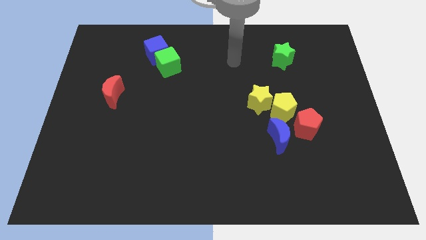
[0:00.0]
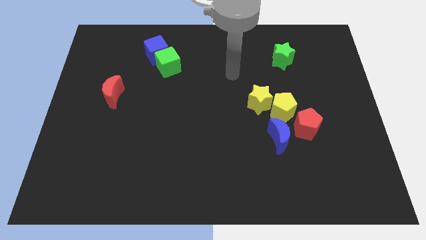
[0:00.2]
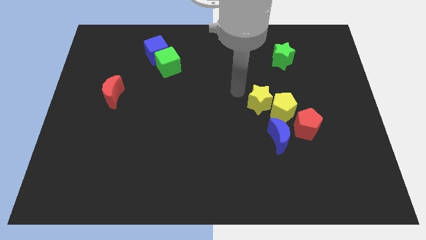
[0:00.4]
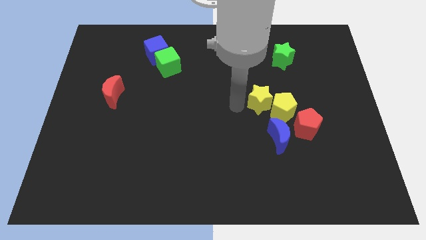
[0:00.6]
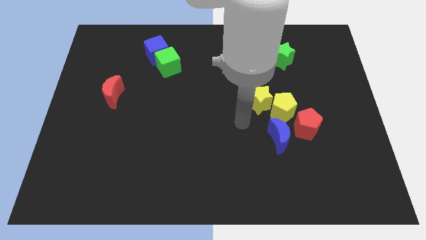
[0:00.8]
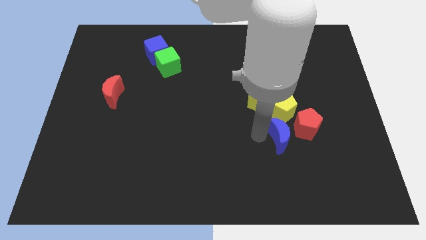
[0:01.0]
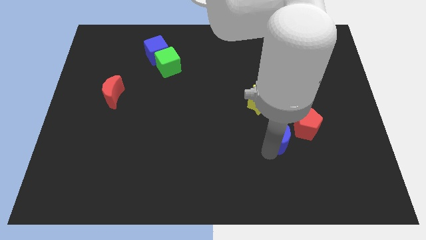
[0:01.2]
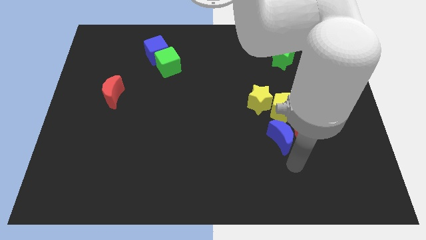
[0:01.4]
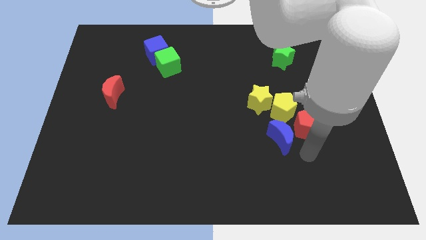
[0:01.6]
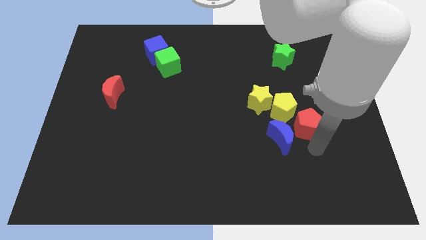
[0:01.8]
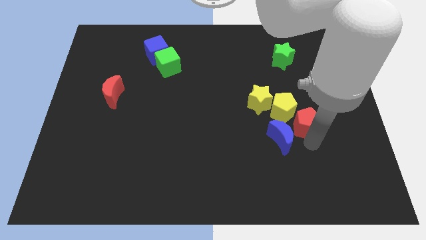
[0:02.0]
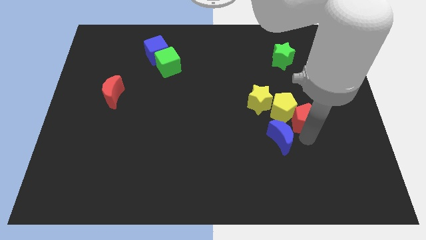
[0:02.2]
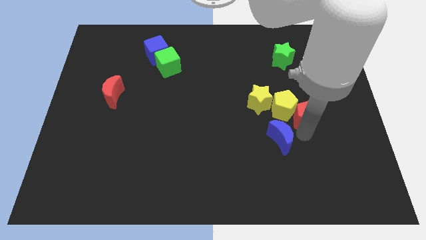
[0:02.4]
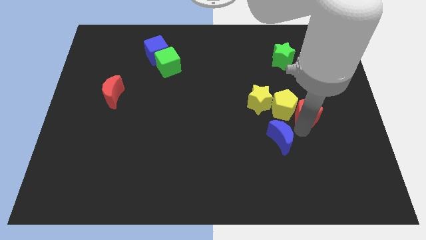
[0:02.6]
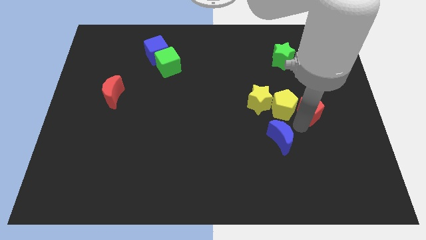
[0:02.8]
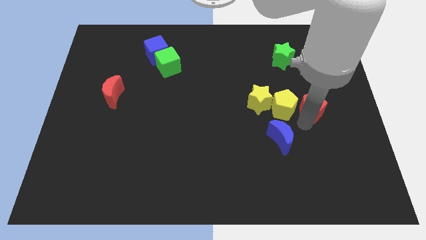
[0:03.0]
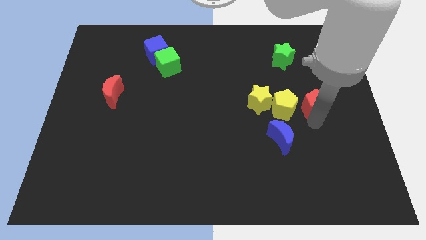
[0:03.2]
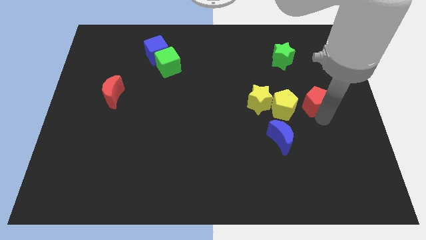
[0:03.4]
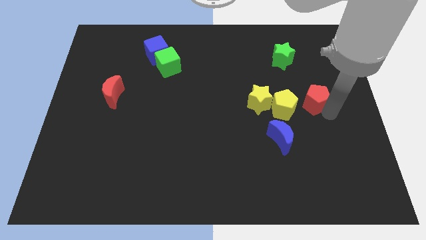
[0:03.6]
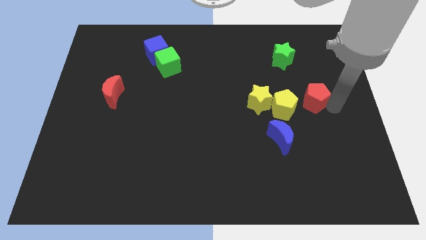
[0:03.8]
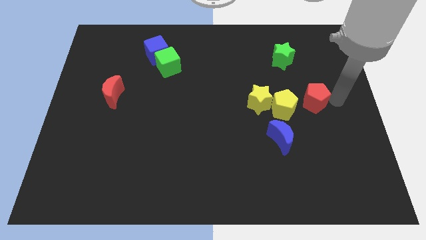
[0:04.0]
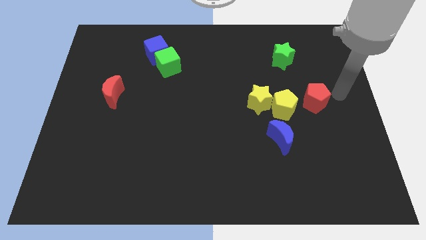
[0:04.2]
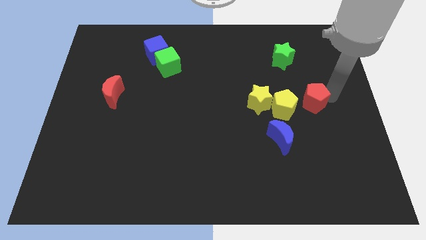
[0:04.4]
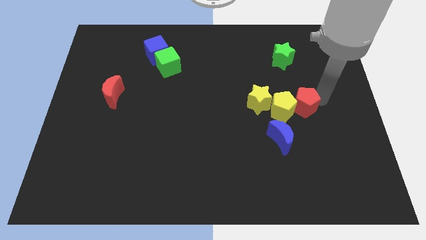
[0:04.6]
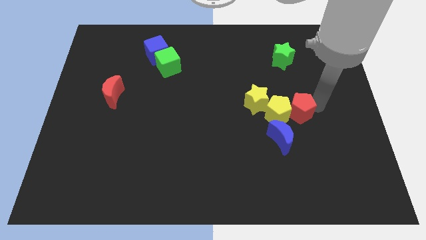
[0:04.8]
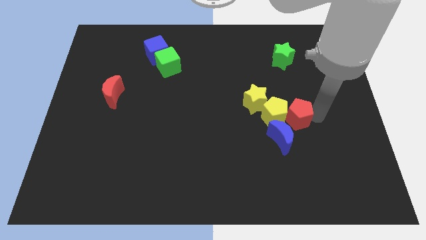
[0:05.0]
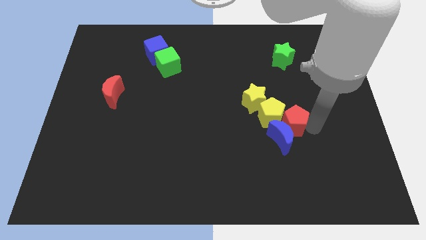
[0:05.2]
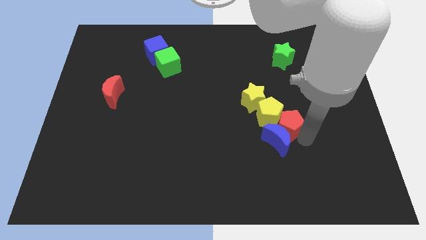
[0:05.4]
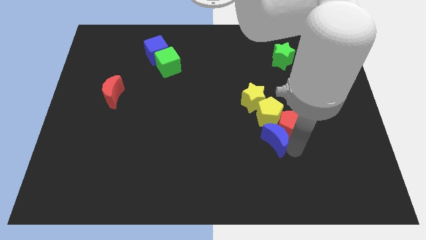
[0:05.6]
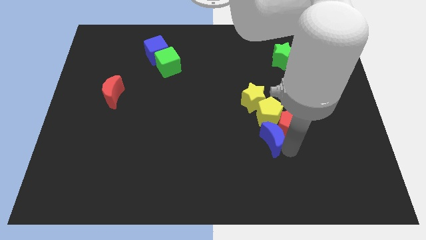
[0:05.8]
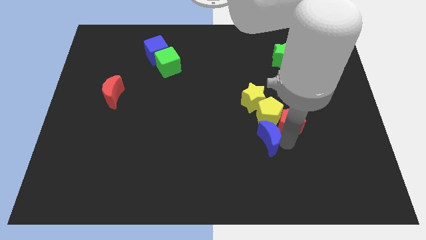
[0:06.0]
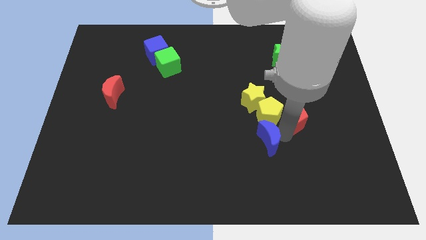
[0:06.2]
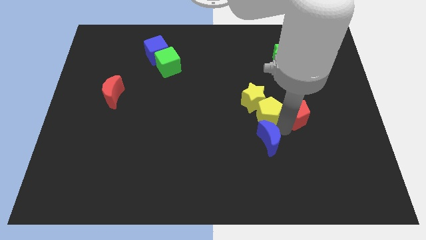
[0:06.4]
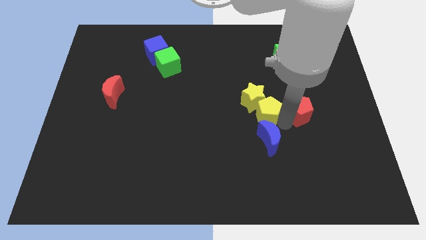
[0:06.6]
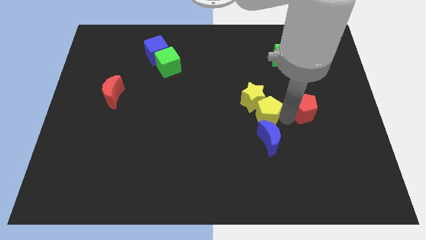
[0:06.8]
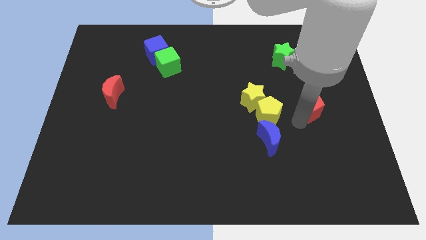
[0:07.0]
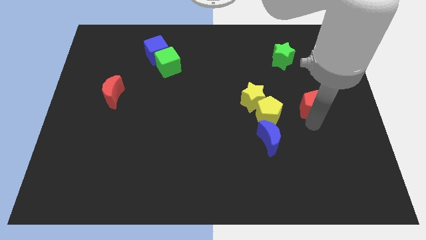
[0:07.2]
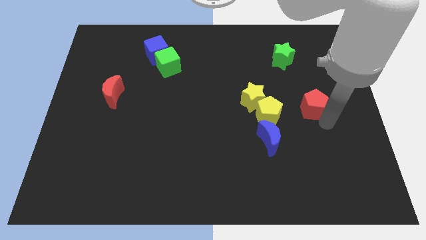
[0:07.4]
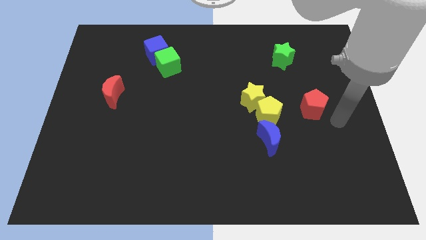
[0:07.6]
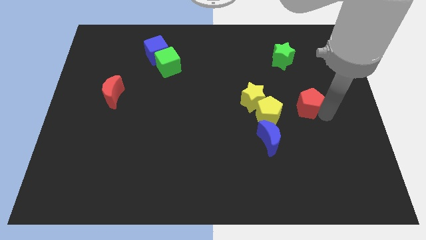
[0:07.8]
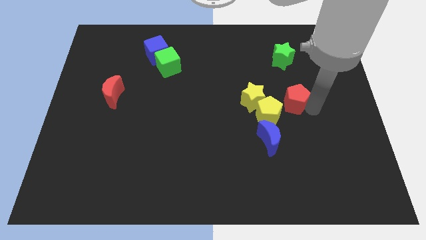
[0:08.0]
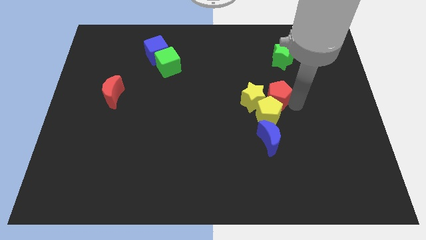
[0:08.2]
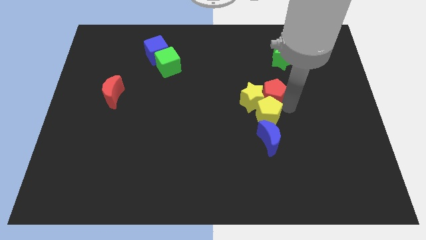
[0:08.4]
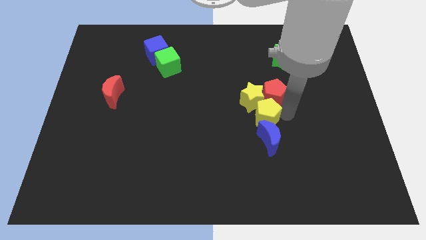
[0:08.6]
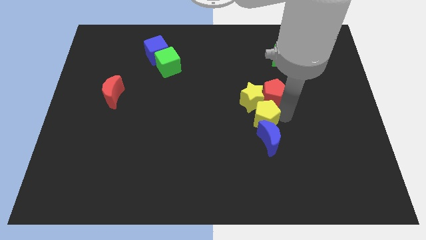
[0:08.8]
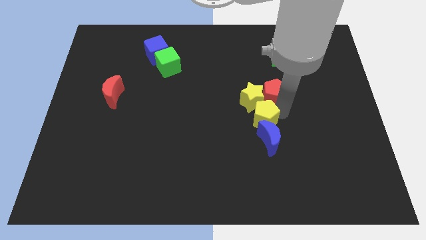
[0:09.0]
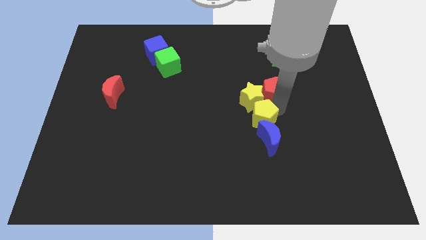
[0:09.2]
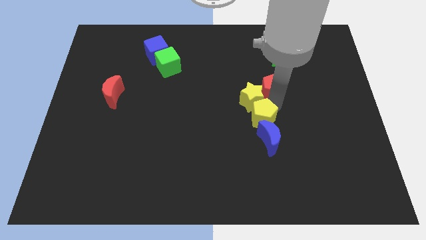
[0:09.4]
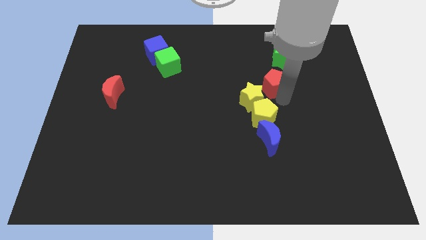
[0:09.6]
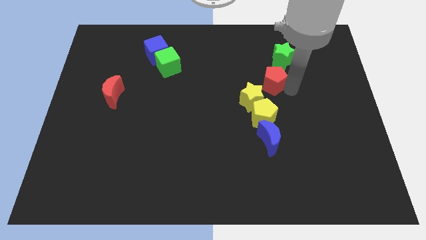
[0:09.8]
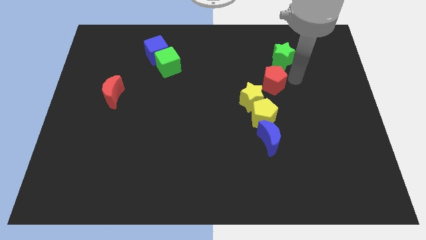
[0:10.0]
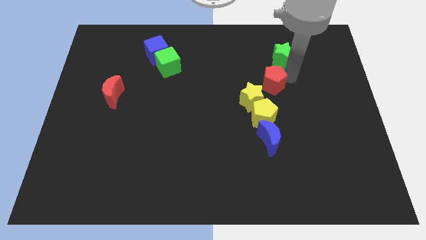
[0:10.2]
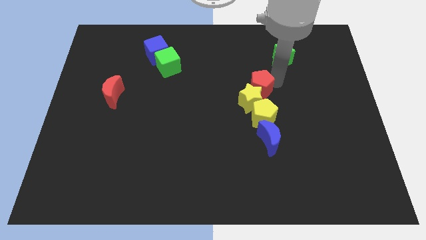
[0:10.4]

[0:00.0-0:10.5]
slide the red pentagon to the center of the board

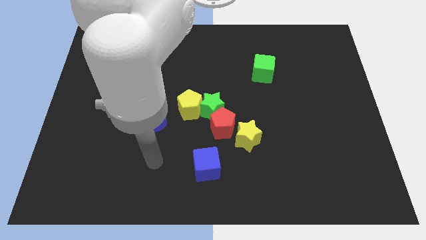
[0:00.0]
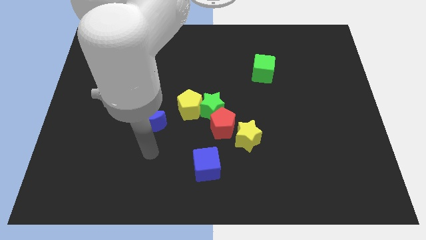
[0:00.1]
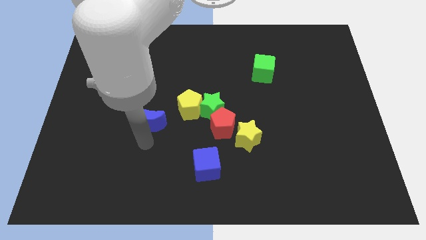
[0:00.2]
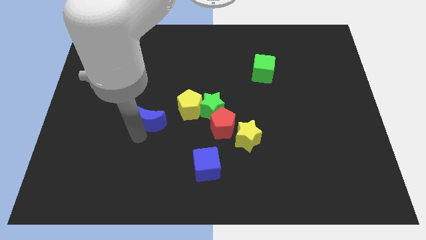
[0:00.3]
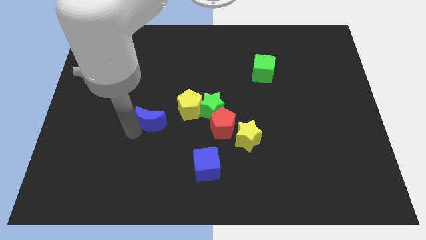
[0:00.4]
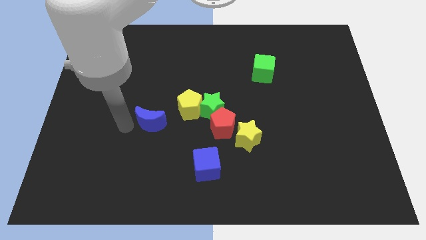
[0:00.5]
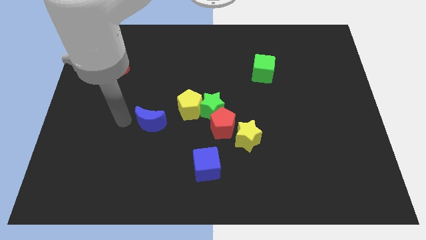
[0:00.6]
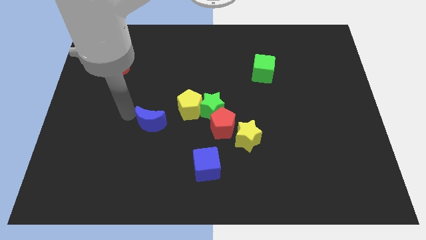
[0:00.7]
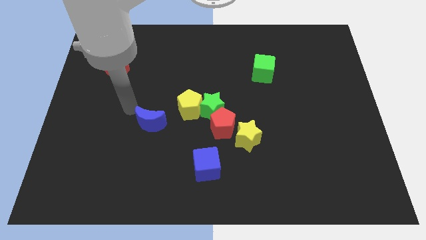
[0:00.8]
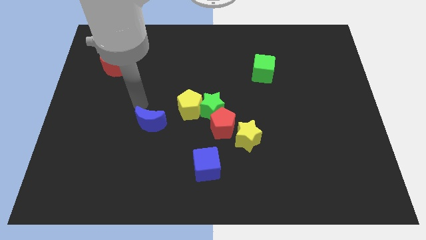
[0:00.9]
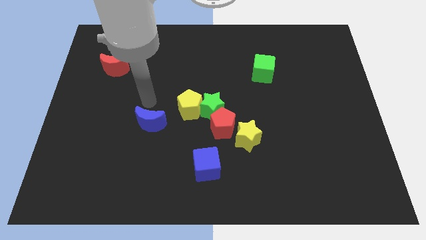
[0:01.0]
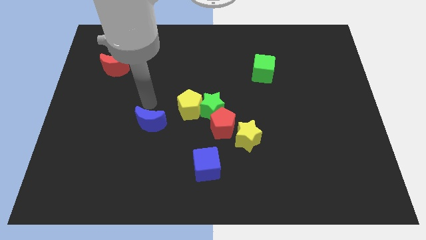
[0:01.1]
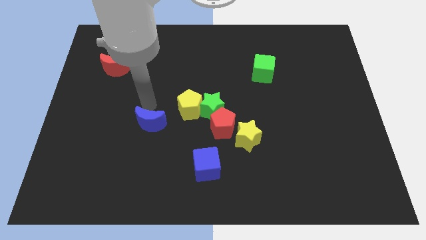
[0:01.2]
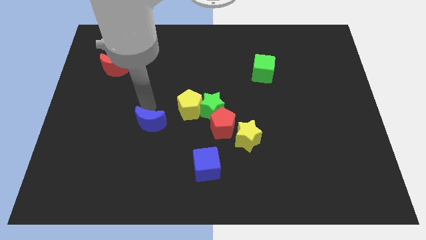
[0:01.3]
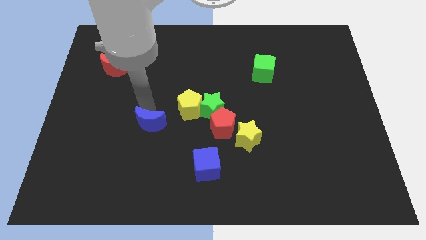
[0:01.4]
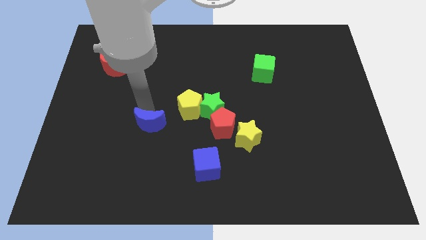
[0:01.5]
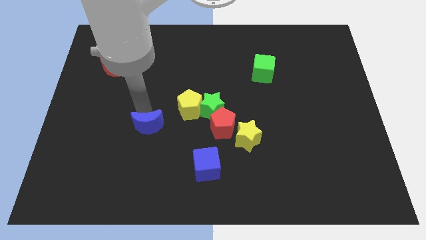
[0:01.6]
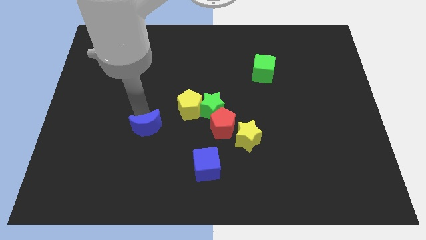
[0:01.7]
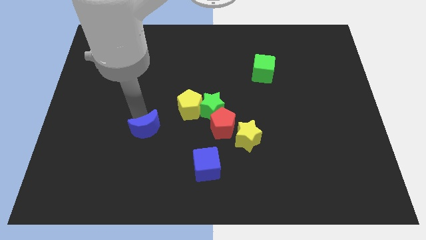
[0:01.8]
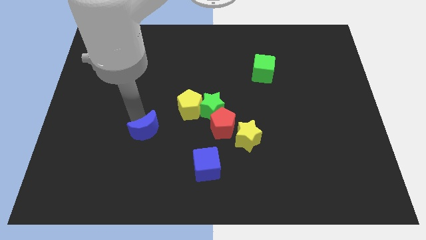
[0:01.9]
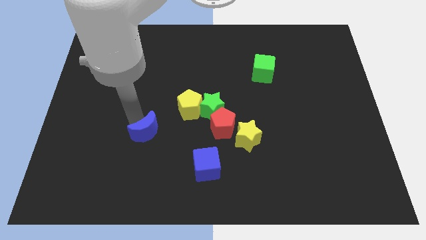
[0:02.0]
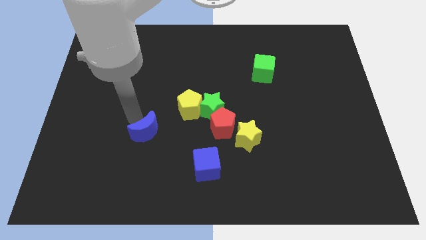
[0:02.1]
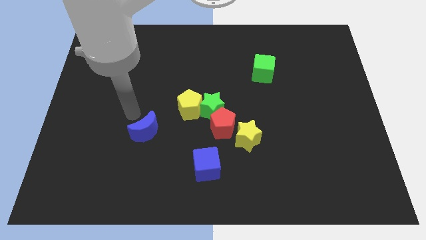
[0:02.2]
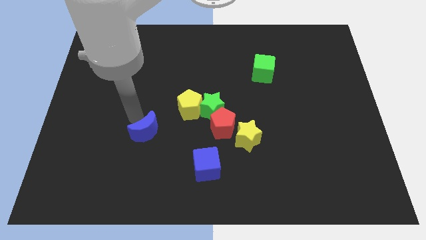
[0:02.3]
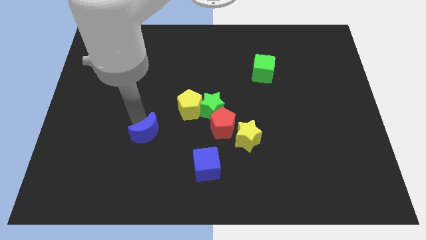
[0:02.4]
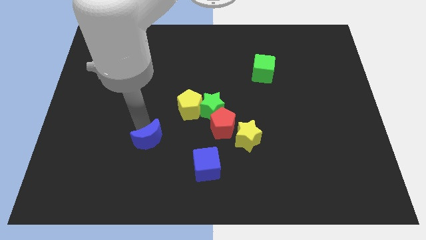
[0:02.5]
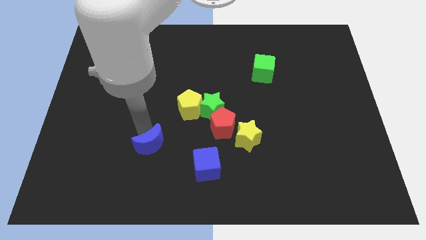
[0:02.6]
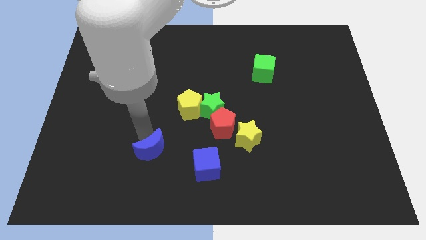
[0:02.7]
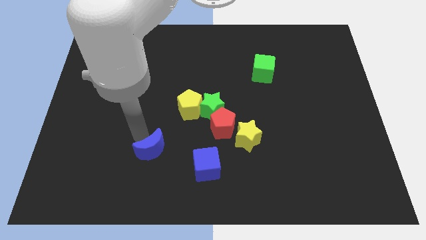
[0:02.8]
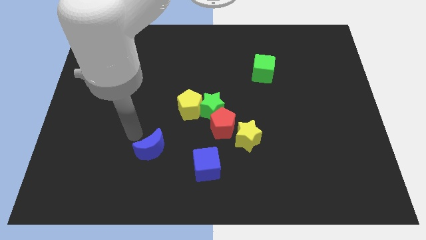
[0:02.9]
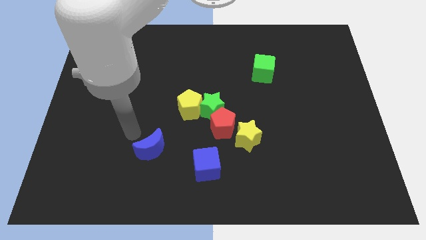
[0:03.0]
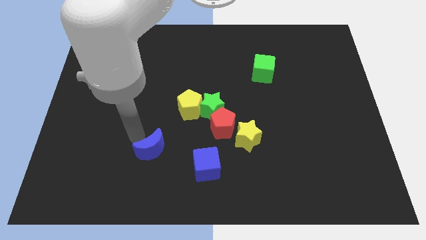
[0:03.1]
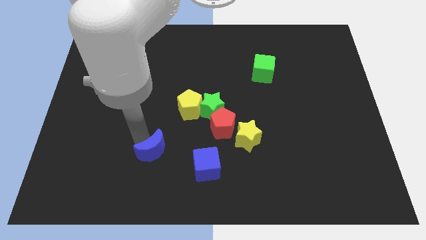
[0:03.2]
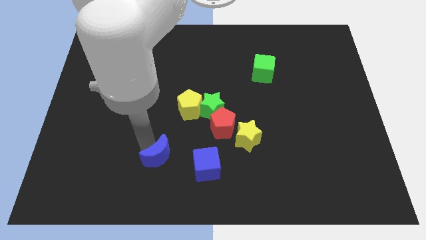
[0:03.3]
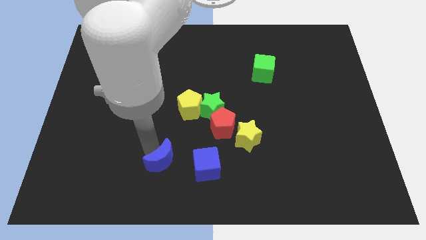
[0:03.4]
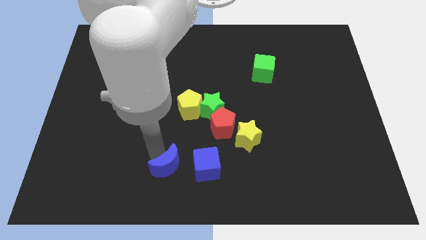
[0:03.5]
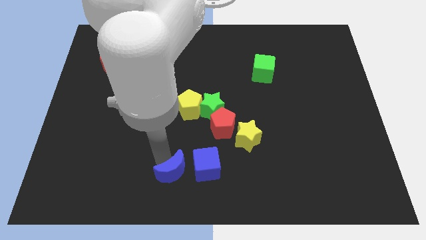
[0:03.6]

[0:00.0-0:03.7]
move the blue moon to the bottom
